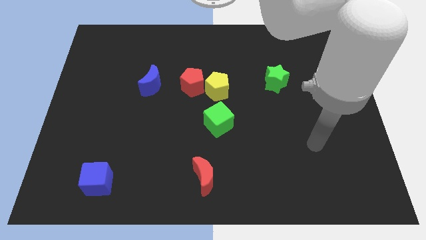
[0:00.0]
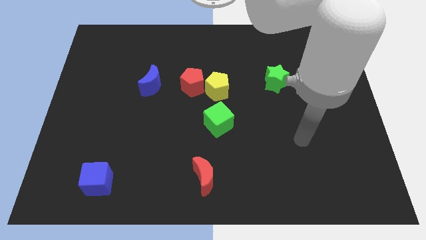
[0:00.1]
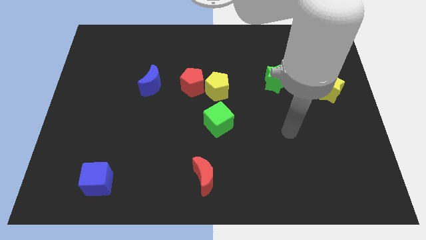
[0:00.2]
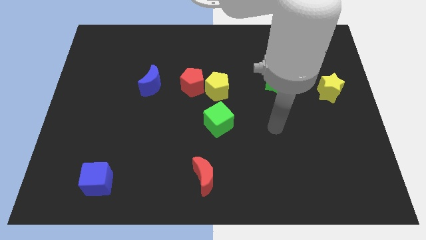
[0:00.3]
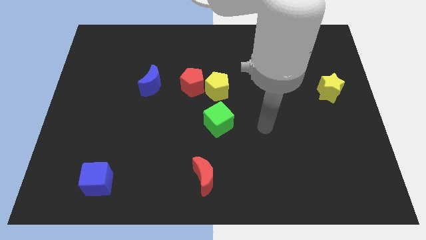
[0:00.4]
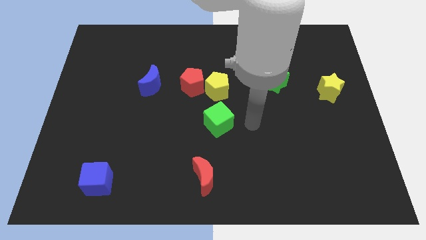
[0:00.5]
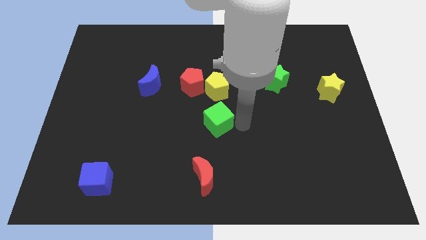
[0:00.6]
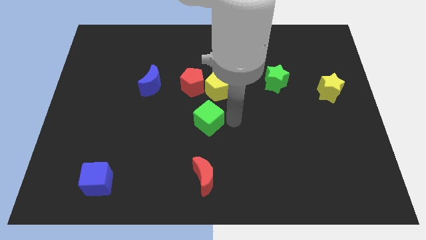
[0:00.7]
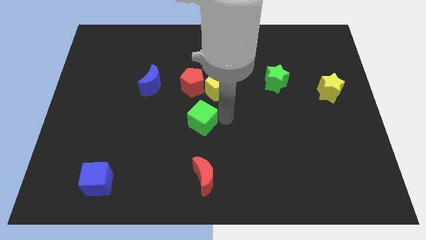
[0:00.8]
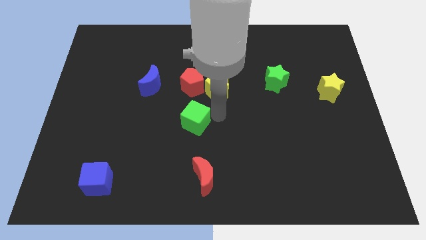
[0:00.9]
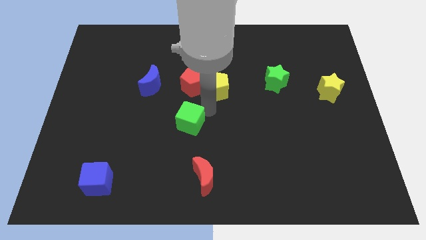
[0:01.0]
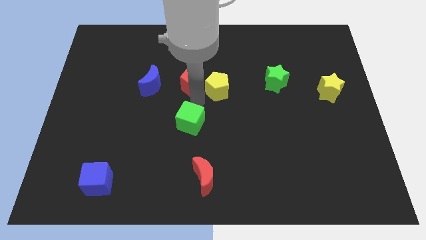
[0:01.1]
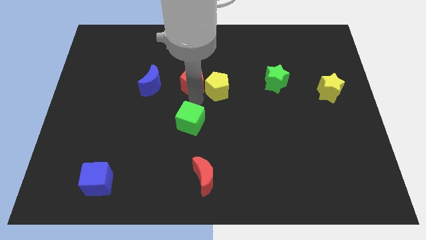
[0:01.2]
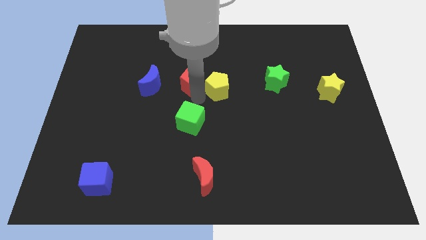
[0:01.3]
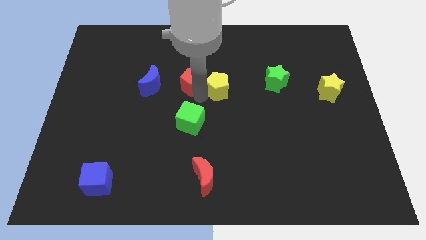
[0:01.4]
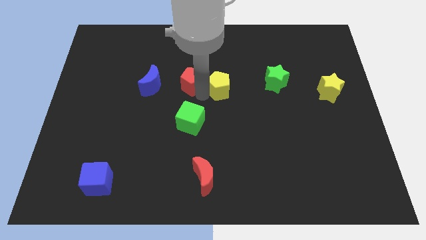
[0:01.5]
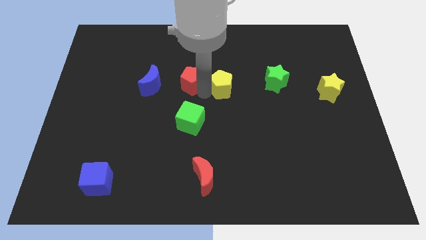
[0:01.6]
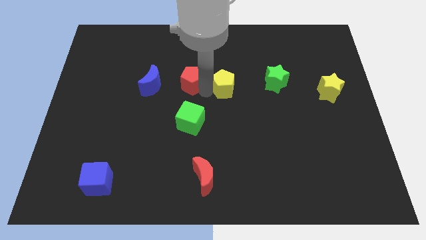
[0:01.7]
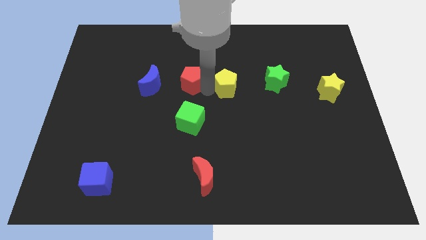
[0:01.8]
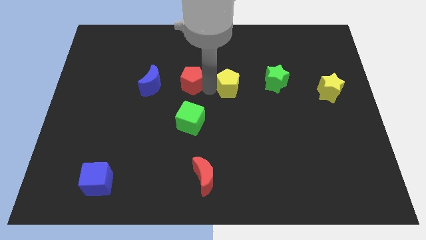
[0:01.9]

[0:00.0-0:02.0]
pull the yellow pentagon apart from the red pentagon and green cube

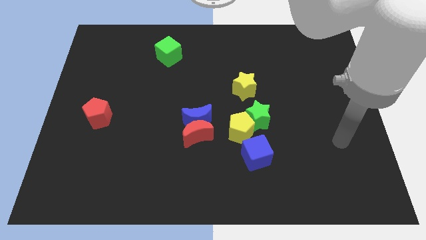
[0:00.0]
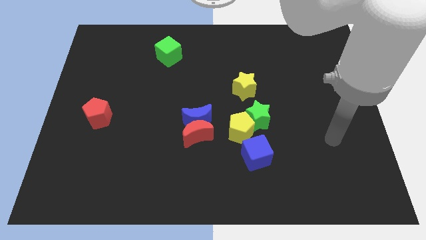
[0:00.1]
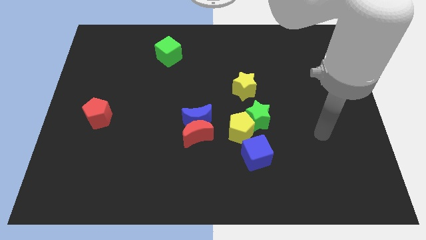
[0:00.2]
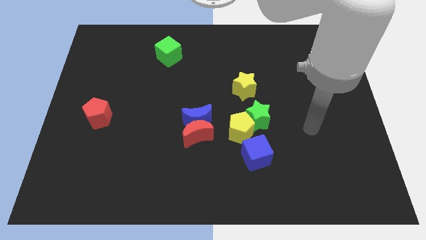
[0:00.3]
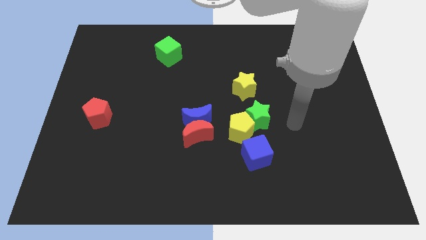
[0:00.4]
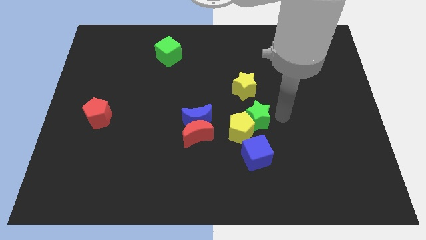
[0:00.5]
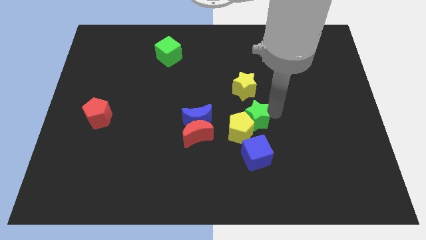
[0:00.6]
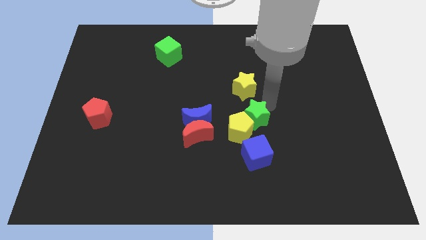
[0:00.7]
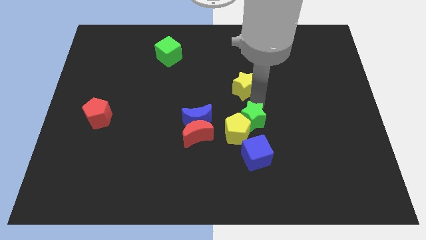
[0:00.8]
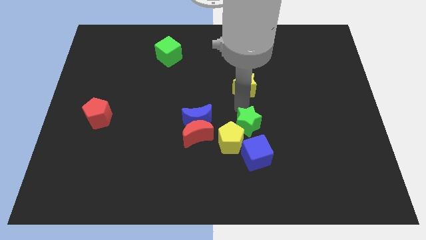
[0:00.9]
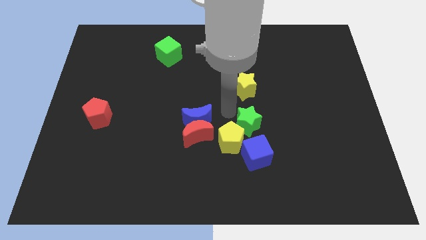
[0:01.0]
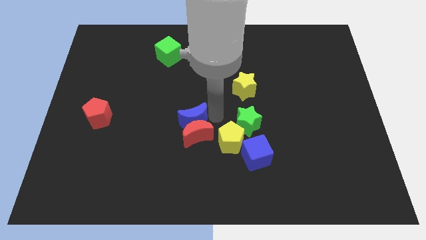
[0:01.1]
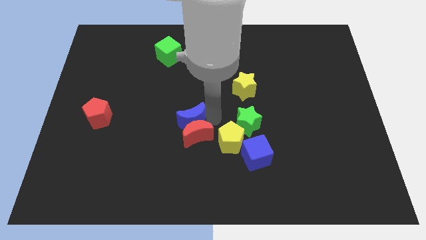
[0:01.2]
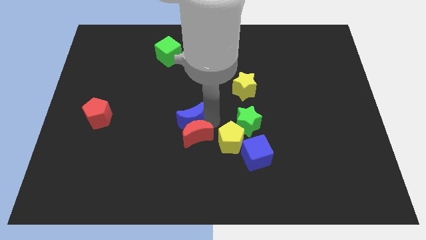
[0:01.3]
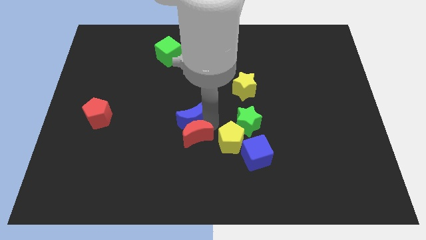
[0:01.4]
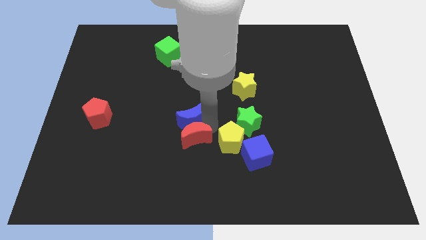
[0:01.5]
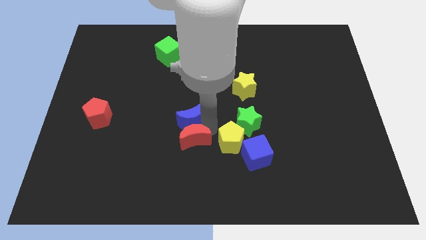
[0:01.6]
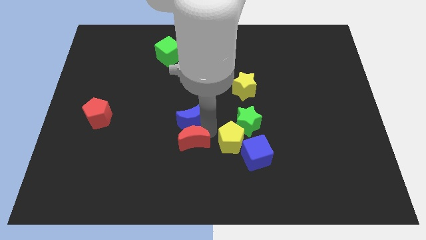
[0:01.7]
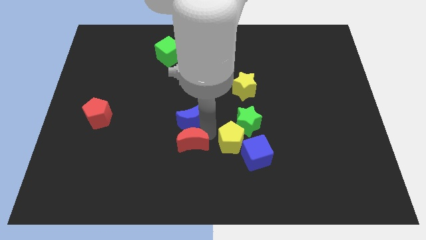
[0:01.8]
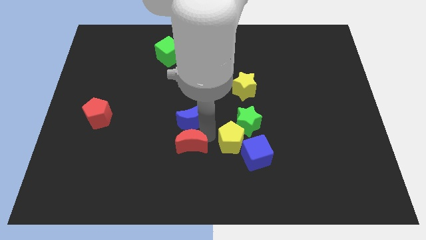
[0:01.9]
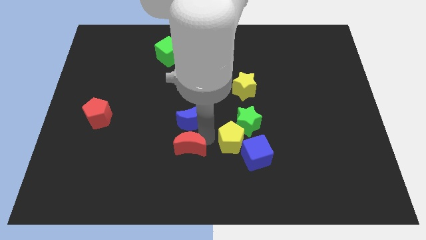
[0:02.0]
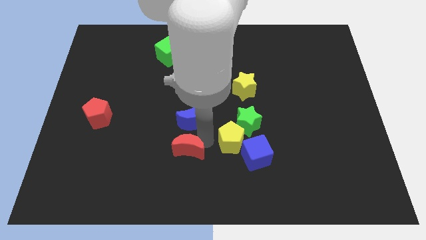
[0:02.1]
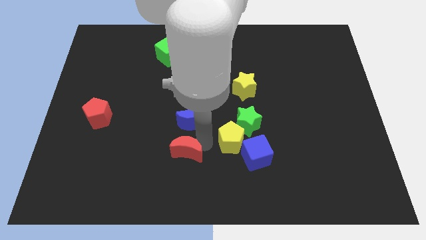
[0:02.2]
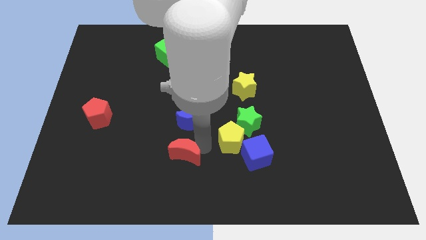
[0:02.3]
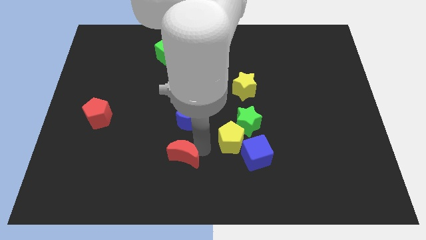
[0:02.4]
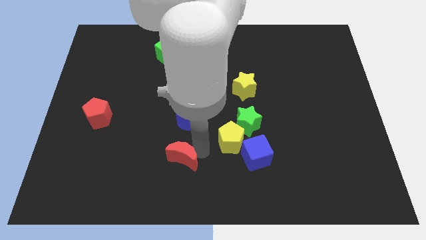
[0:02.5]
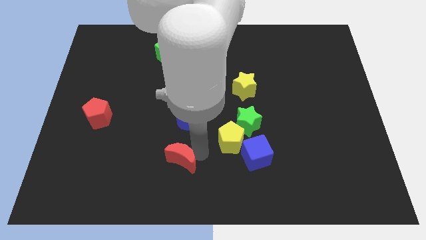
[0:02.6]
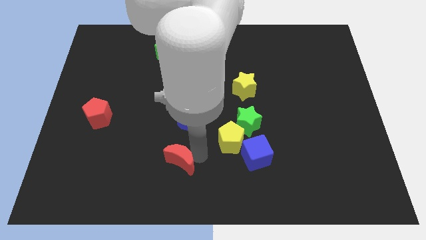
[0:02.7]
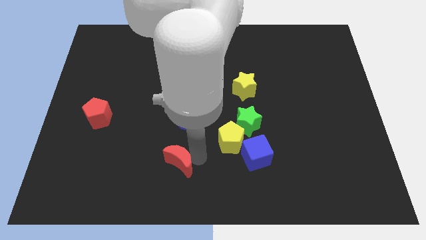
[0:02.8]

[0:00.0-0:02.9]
move the red moon away from the blue moon and yellow pentagon

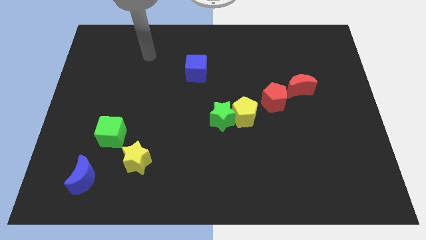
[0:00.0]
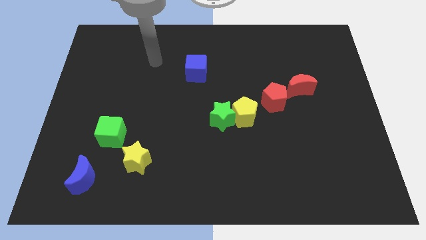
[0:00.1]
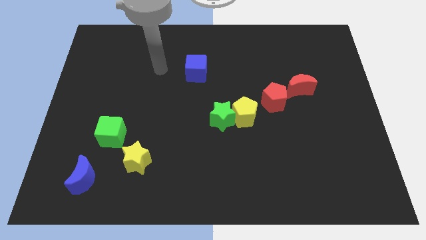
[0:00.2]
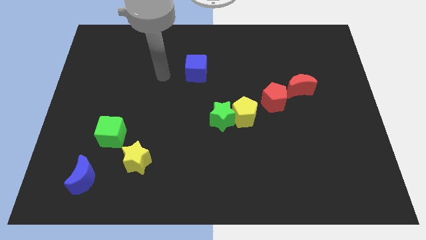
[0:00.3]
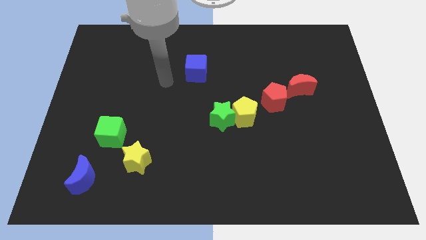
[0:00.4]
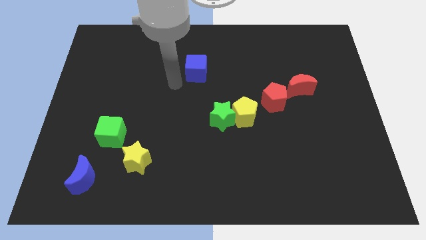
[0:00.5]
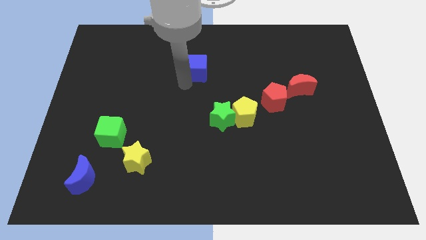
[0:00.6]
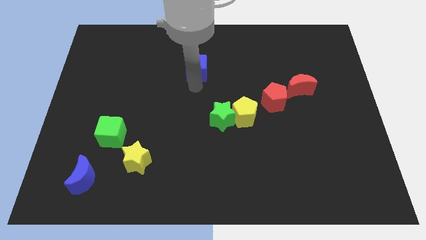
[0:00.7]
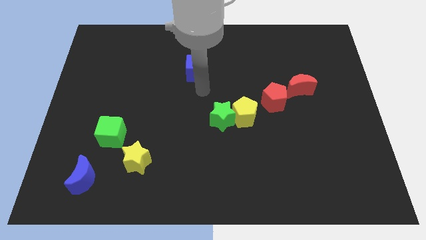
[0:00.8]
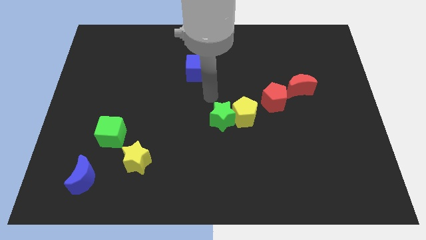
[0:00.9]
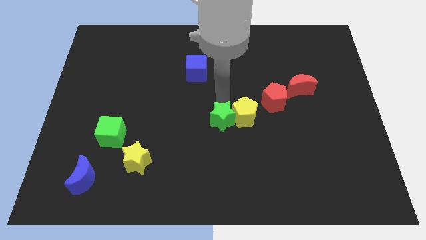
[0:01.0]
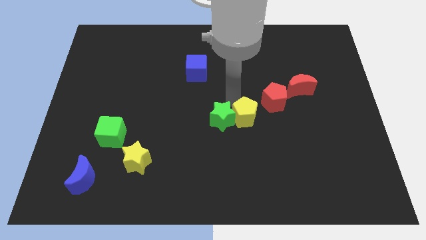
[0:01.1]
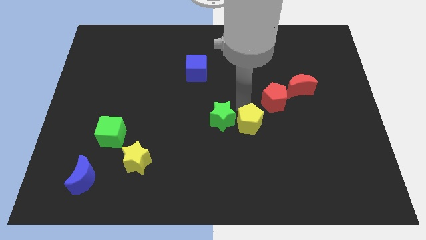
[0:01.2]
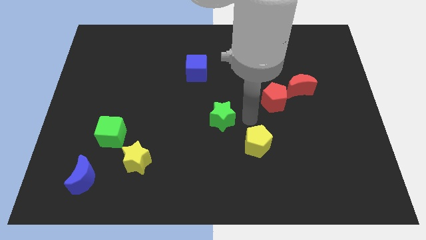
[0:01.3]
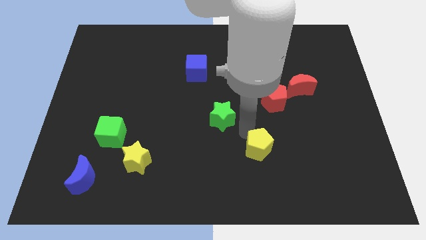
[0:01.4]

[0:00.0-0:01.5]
pull the green star apart from the yellow pentagon

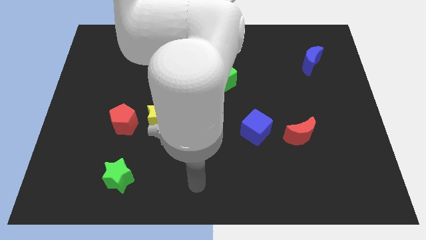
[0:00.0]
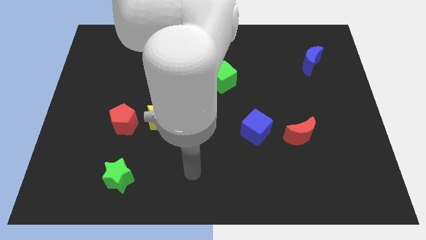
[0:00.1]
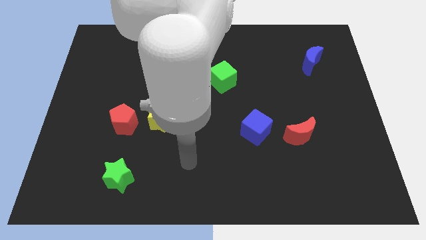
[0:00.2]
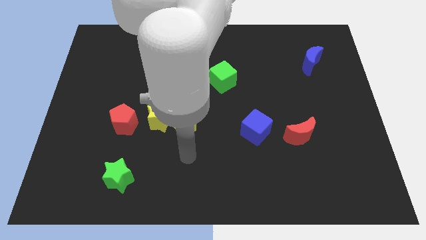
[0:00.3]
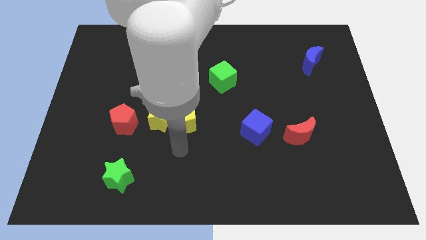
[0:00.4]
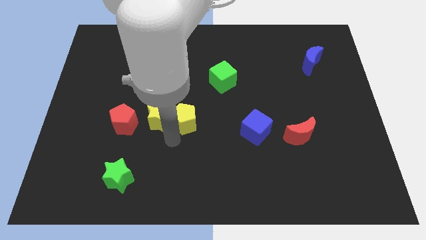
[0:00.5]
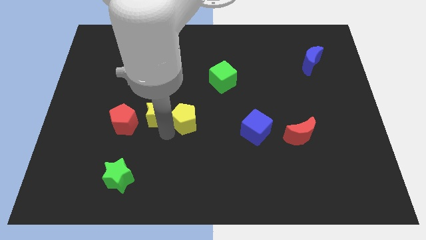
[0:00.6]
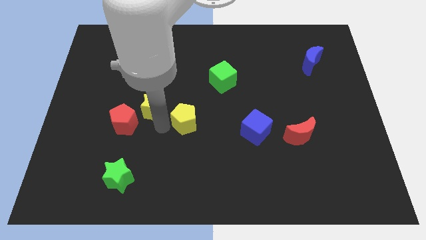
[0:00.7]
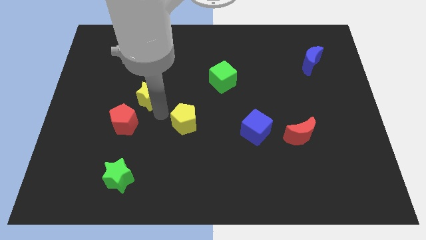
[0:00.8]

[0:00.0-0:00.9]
separate the yellow pentagon from the yellow star

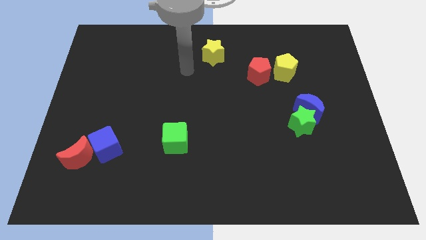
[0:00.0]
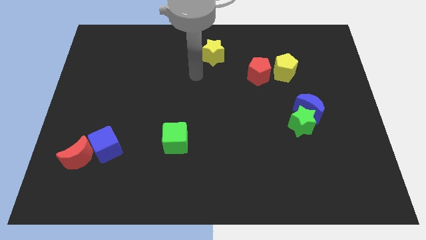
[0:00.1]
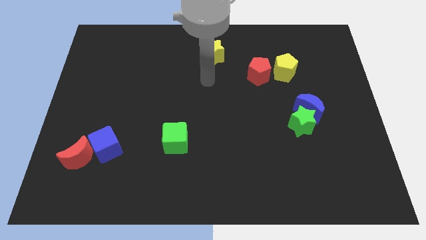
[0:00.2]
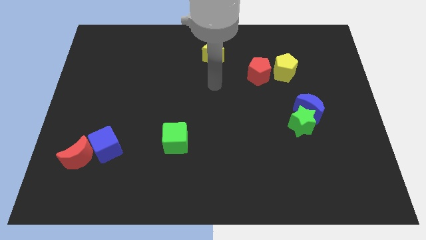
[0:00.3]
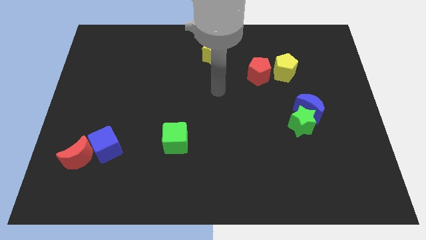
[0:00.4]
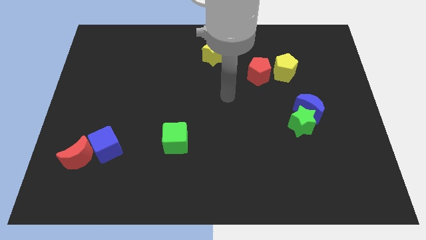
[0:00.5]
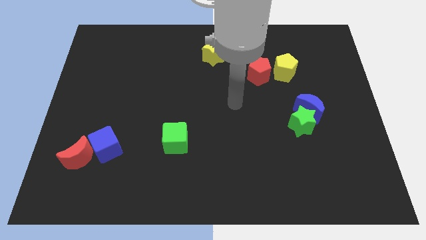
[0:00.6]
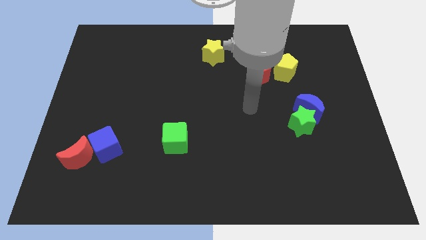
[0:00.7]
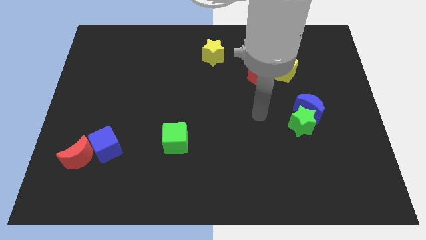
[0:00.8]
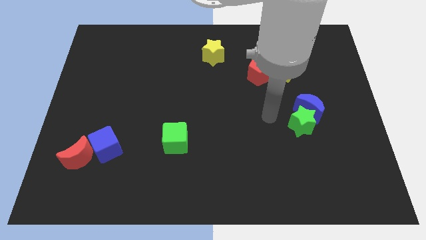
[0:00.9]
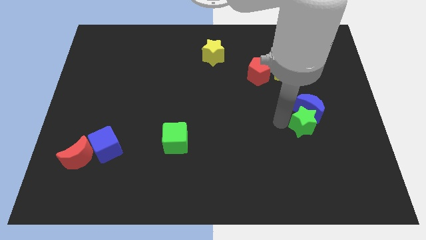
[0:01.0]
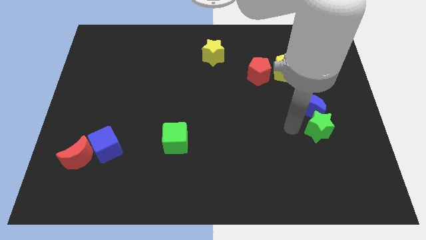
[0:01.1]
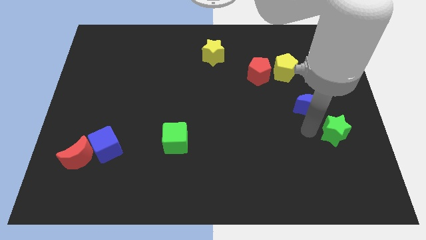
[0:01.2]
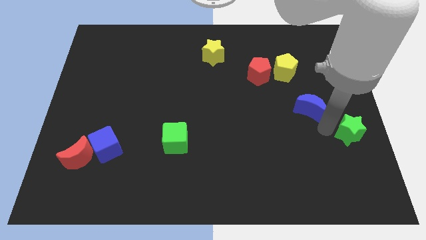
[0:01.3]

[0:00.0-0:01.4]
separate the blue moon from the green star

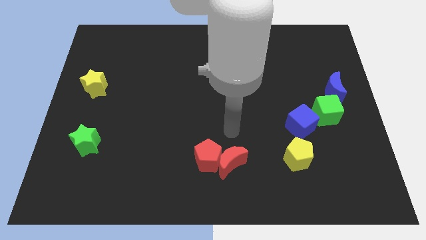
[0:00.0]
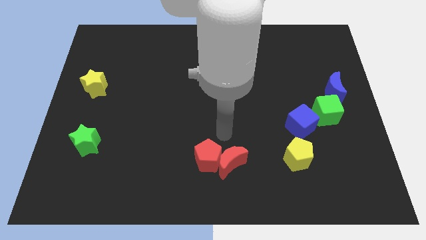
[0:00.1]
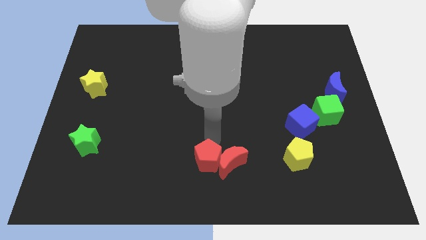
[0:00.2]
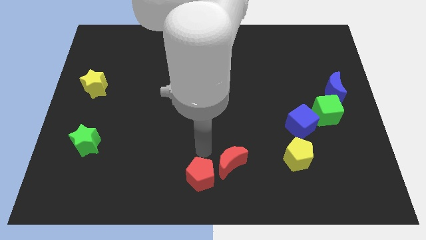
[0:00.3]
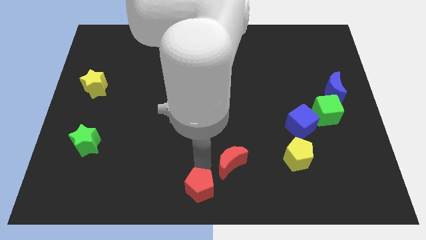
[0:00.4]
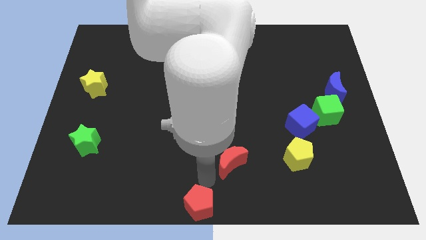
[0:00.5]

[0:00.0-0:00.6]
move the red moon away from the red pentagon

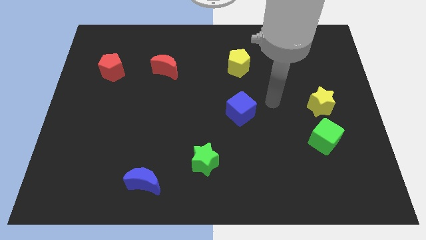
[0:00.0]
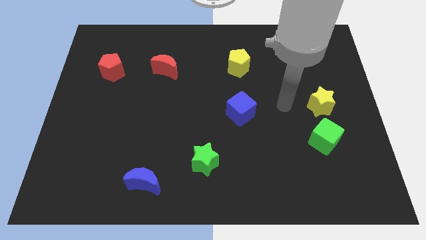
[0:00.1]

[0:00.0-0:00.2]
move the green cube away from the yellow star
